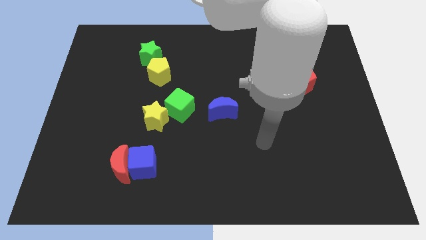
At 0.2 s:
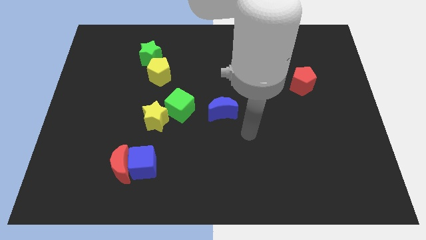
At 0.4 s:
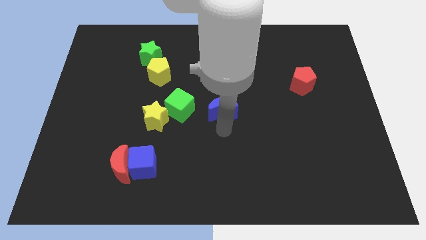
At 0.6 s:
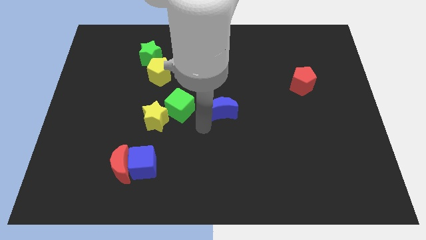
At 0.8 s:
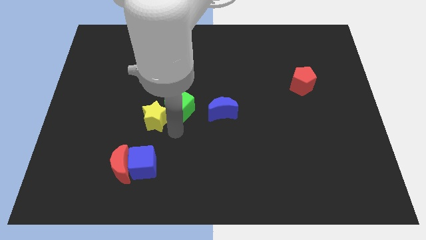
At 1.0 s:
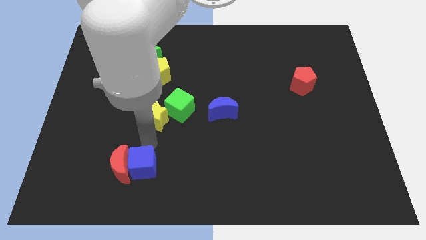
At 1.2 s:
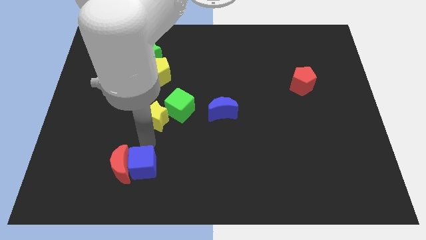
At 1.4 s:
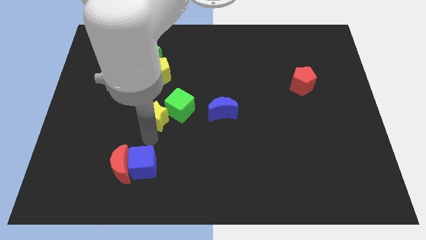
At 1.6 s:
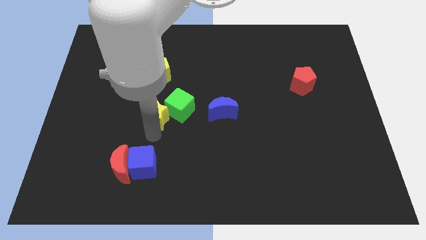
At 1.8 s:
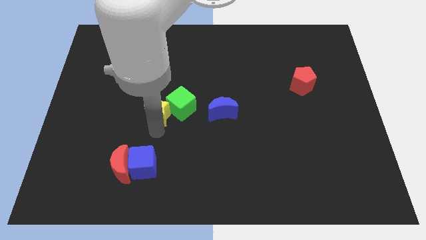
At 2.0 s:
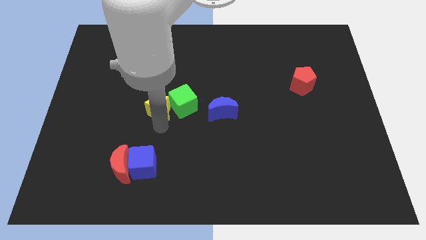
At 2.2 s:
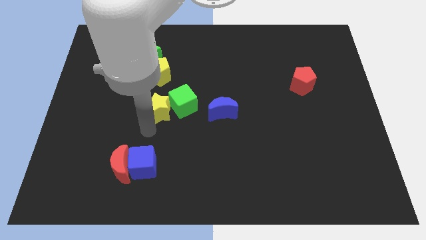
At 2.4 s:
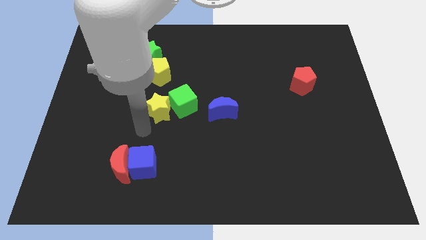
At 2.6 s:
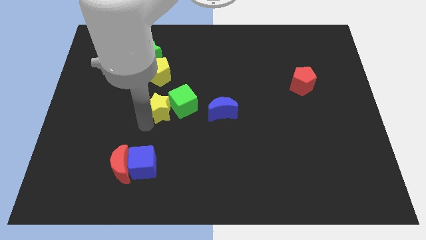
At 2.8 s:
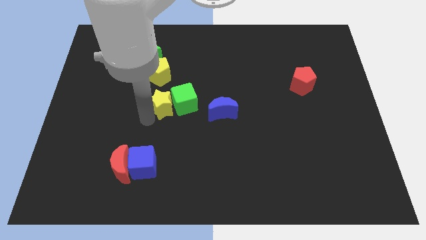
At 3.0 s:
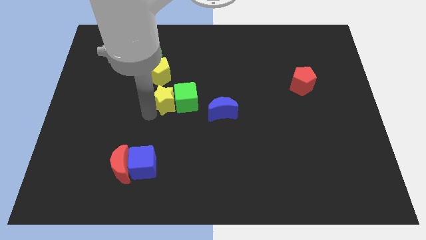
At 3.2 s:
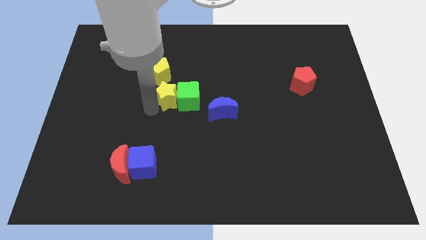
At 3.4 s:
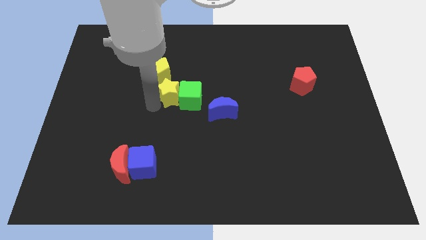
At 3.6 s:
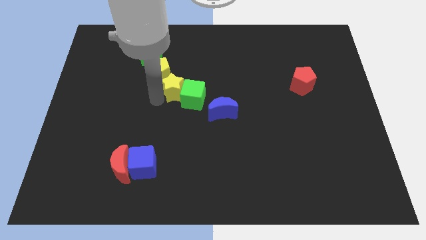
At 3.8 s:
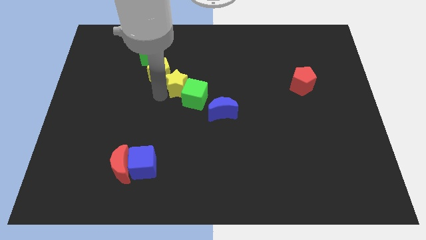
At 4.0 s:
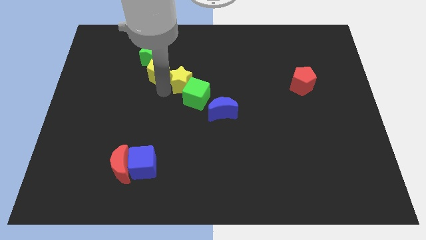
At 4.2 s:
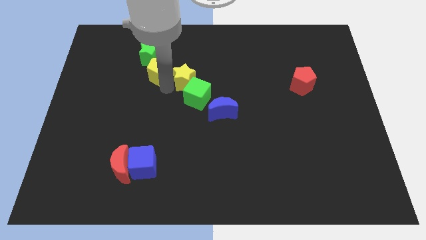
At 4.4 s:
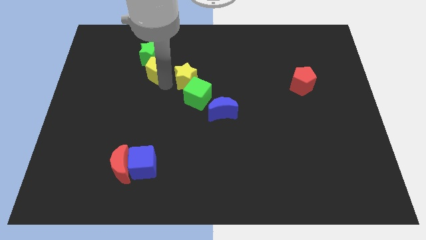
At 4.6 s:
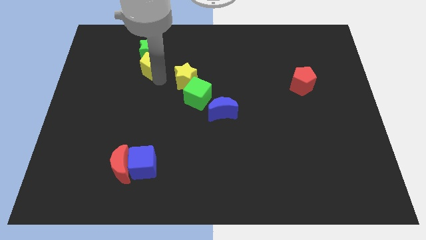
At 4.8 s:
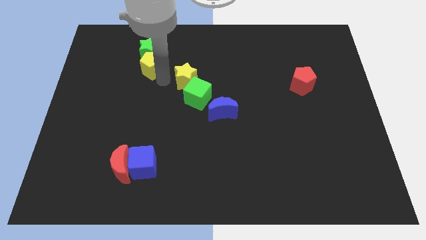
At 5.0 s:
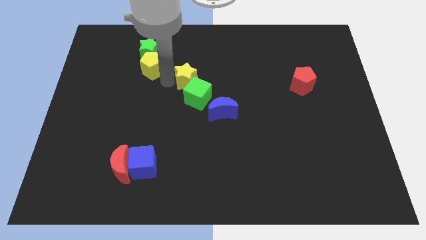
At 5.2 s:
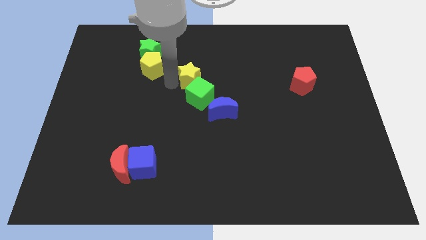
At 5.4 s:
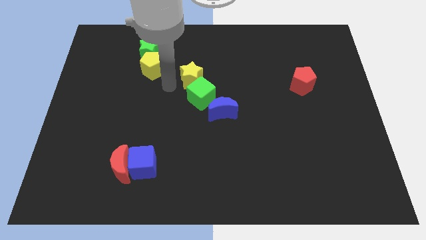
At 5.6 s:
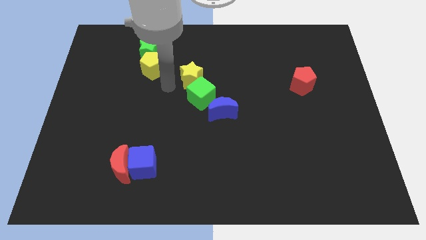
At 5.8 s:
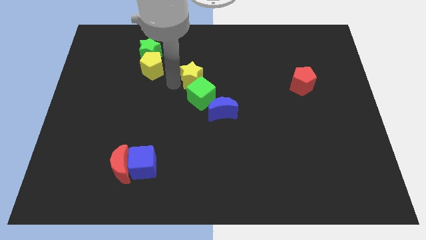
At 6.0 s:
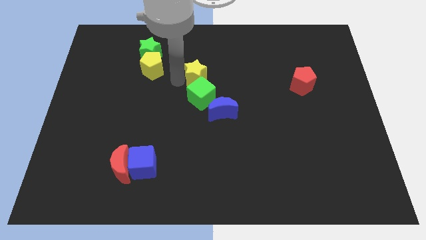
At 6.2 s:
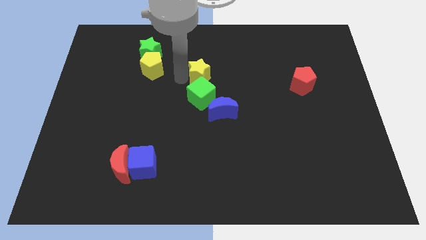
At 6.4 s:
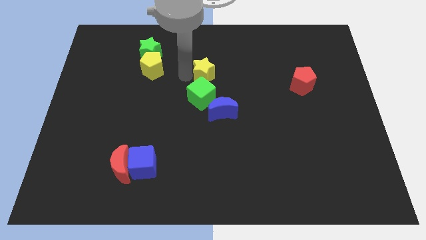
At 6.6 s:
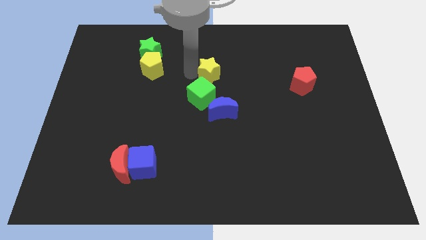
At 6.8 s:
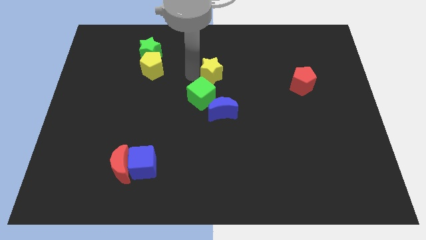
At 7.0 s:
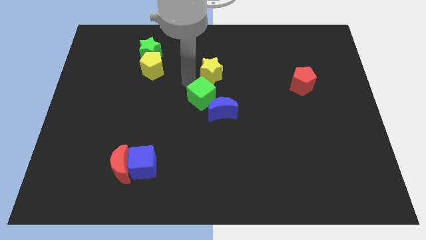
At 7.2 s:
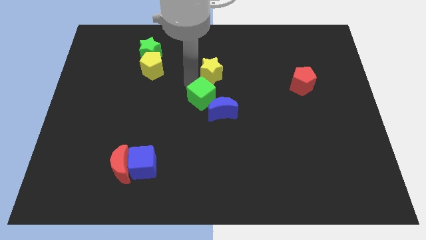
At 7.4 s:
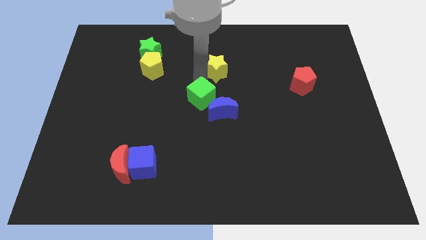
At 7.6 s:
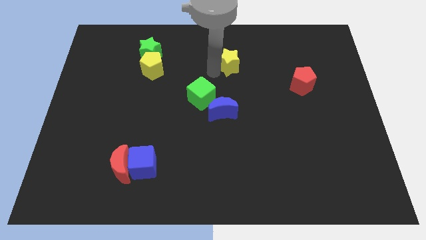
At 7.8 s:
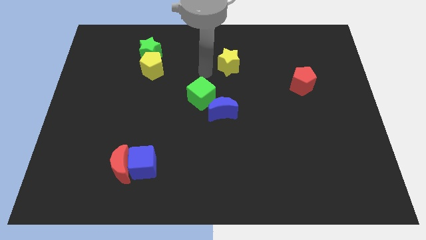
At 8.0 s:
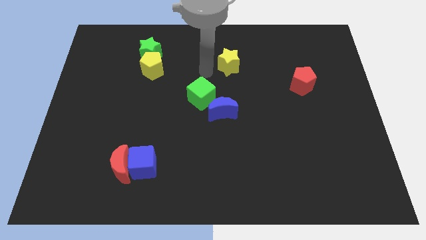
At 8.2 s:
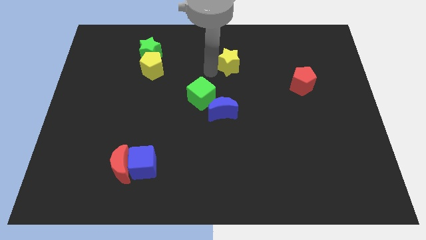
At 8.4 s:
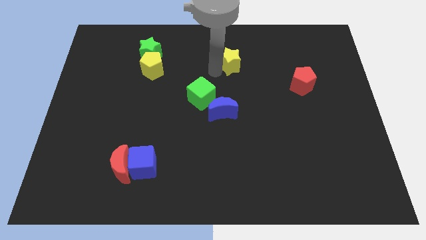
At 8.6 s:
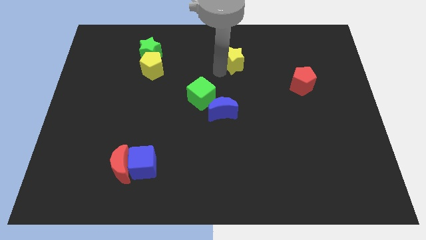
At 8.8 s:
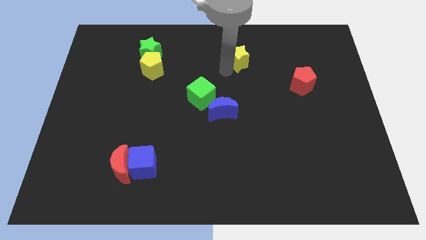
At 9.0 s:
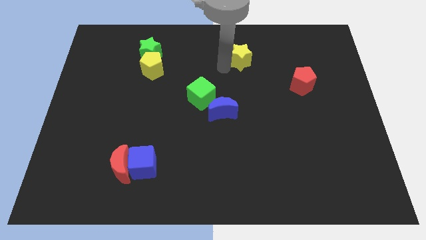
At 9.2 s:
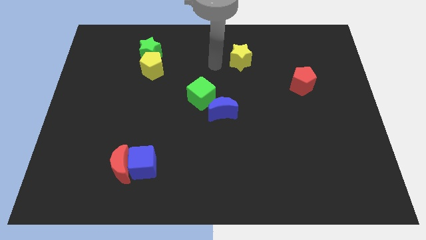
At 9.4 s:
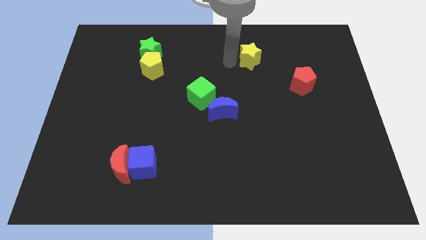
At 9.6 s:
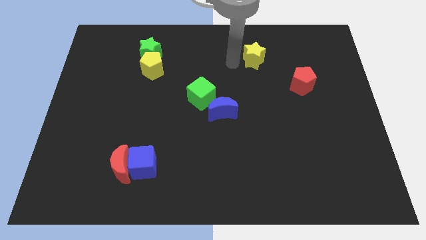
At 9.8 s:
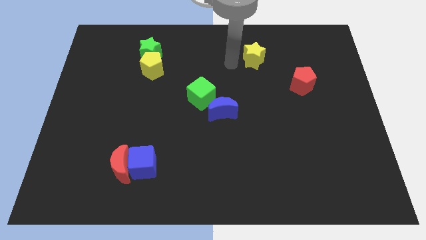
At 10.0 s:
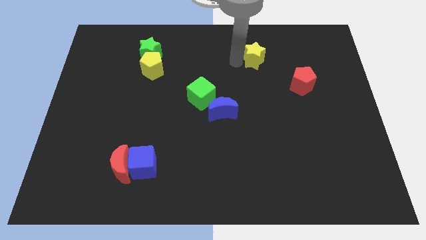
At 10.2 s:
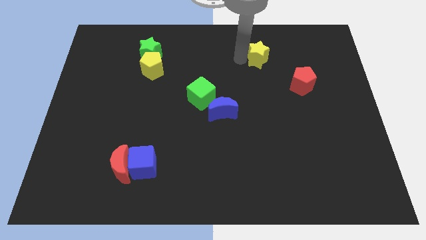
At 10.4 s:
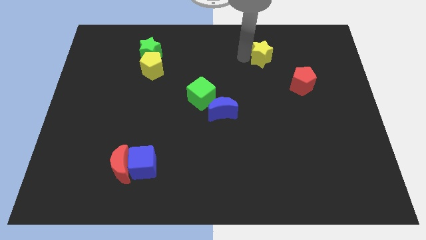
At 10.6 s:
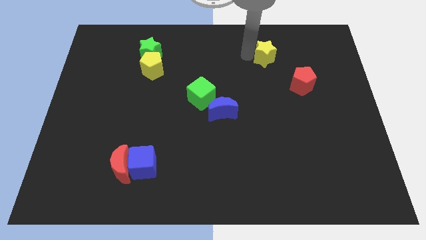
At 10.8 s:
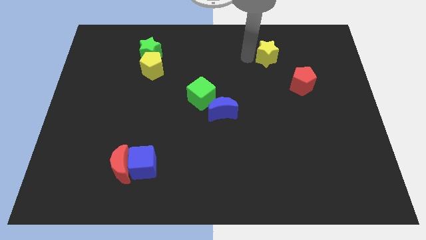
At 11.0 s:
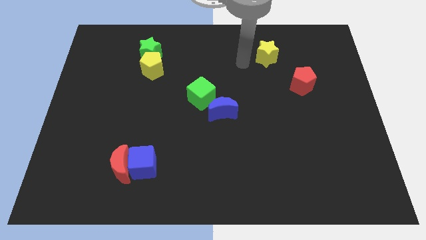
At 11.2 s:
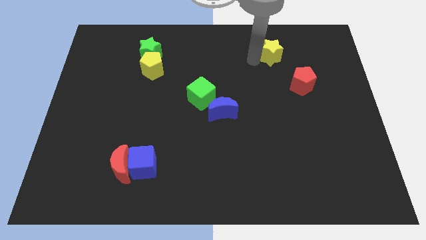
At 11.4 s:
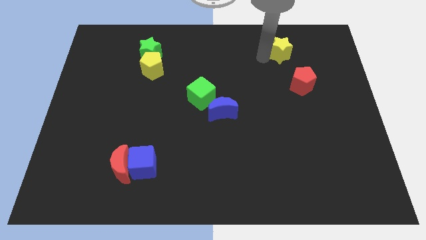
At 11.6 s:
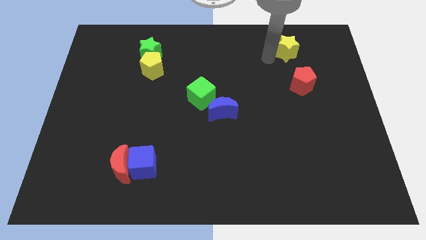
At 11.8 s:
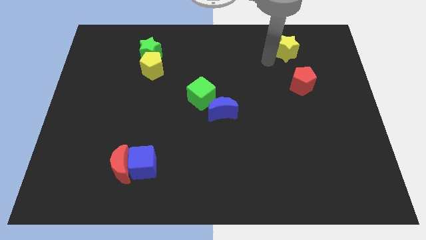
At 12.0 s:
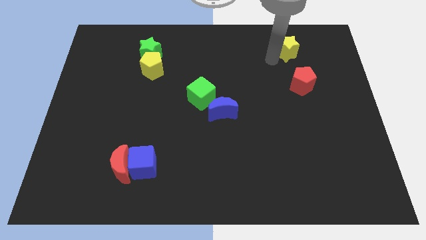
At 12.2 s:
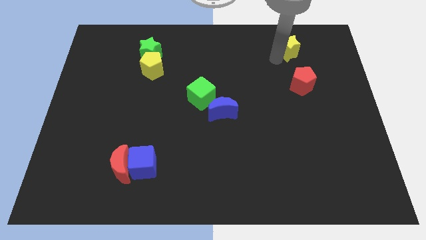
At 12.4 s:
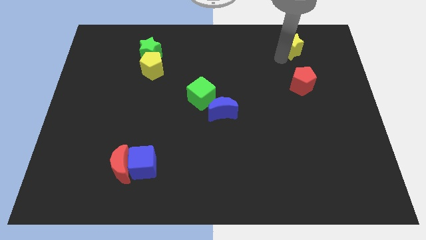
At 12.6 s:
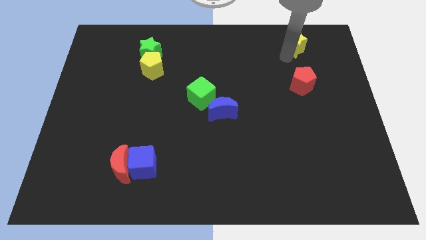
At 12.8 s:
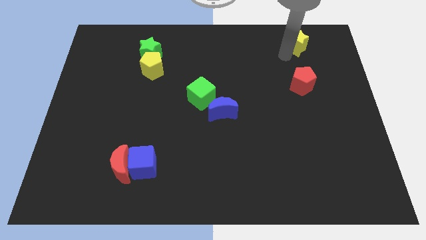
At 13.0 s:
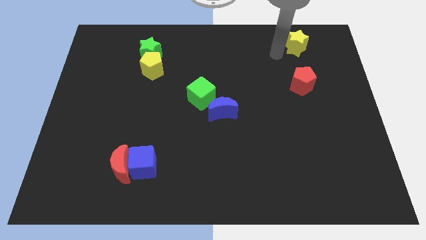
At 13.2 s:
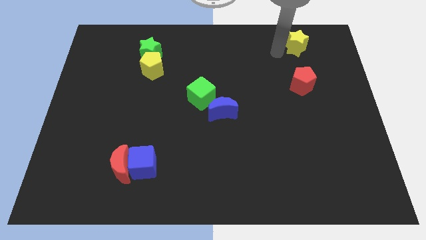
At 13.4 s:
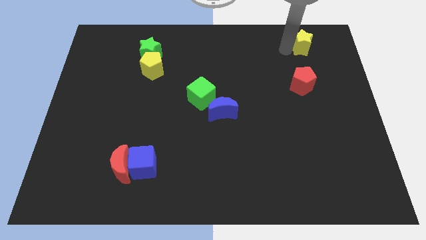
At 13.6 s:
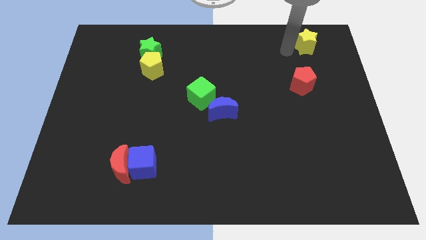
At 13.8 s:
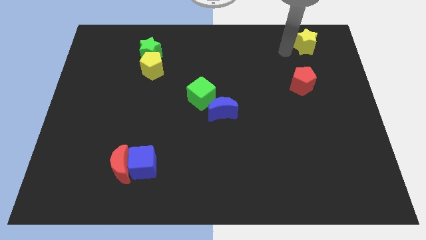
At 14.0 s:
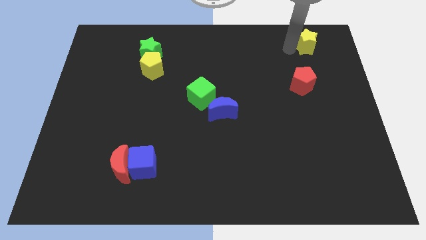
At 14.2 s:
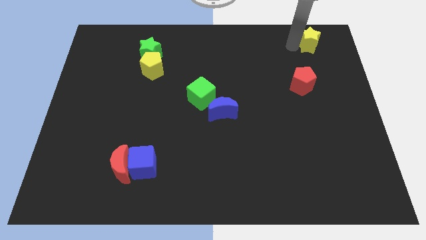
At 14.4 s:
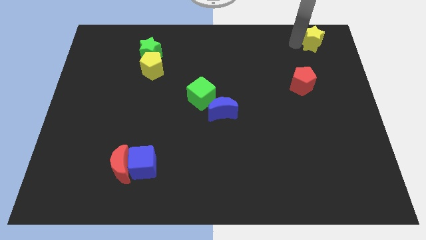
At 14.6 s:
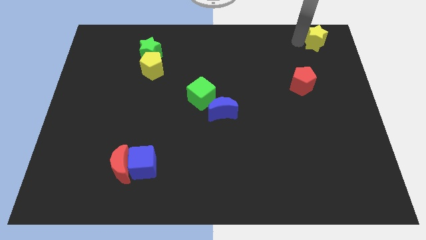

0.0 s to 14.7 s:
move the yellow star to the top right of the board
